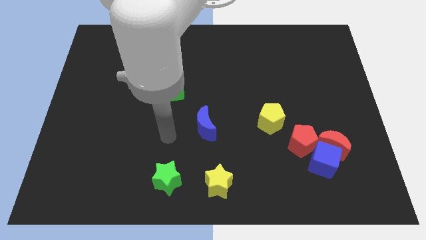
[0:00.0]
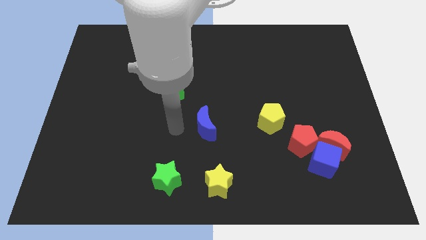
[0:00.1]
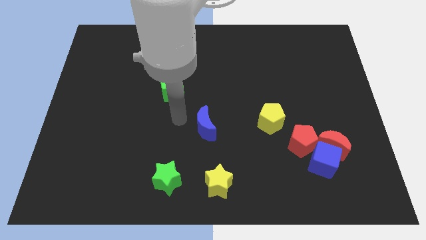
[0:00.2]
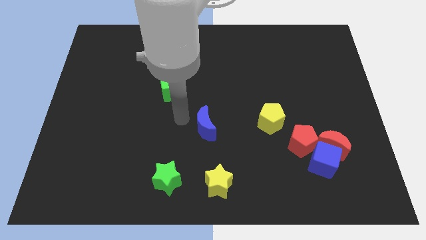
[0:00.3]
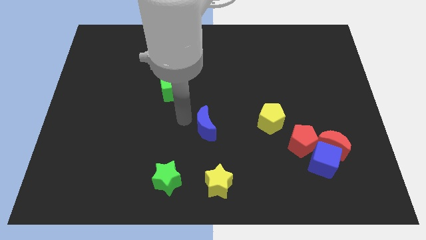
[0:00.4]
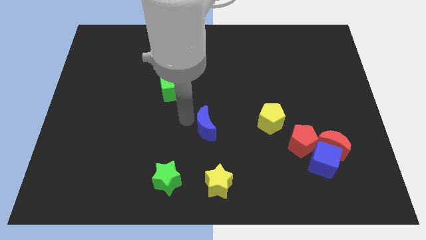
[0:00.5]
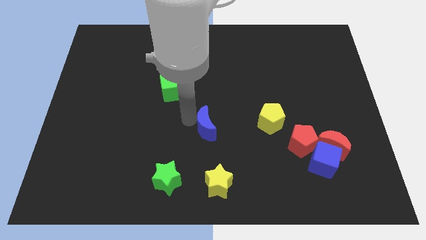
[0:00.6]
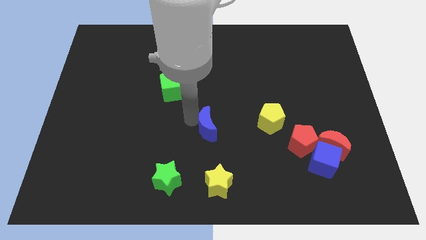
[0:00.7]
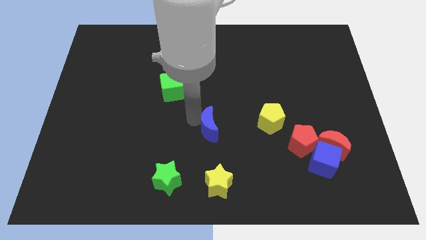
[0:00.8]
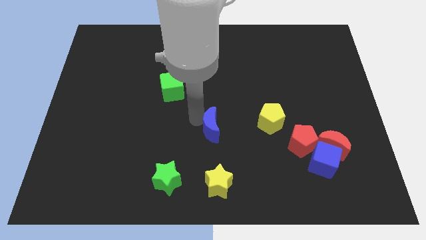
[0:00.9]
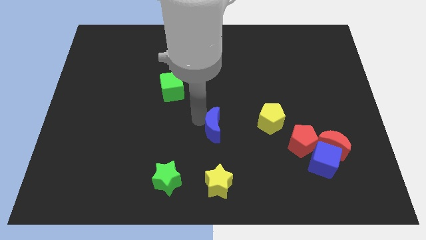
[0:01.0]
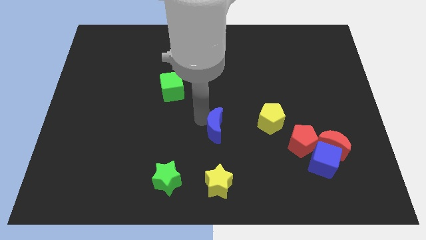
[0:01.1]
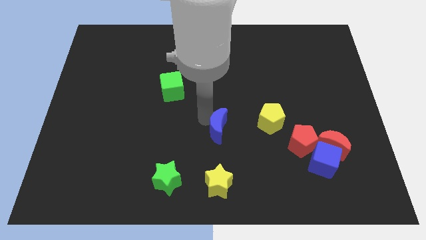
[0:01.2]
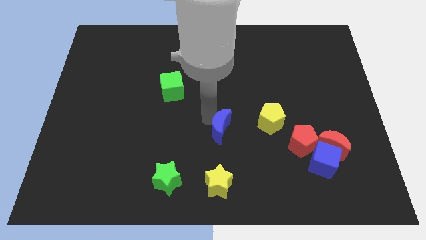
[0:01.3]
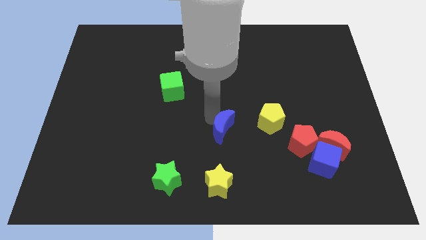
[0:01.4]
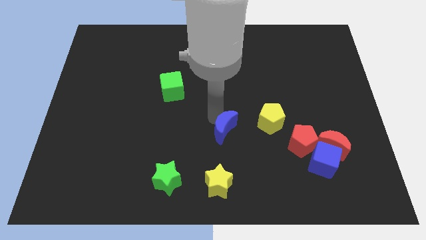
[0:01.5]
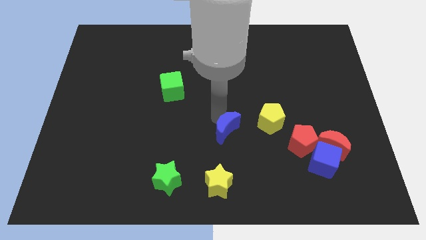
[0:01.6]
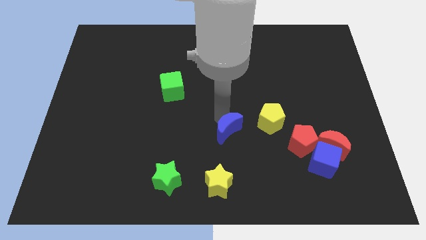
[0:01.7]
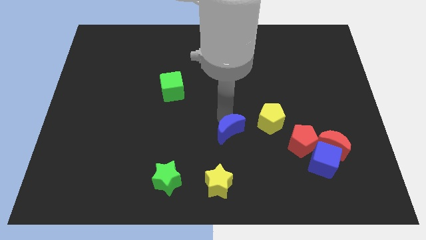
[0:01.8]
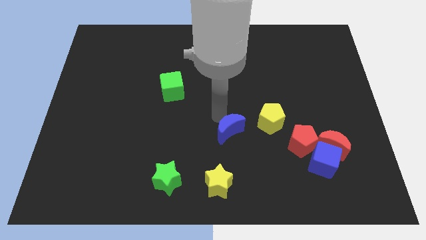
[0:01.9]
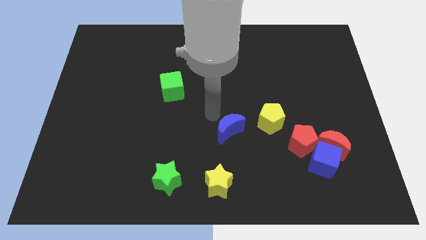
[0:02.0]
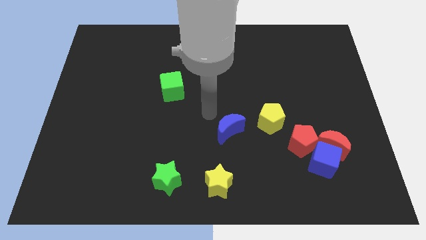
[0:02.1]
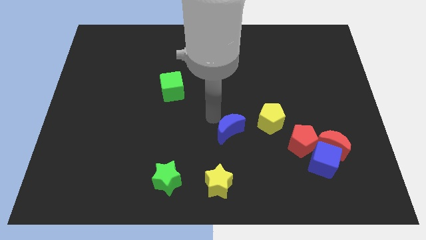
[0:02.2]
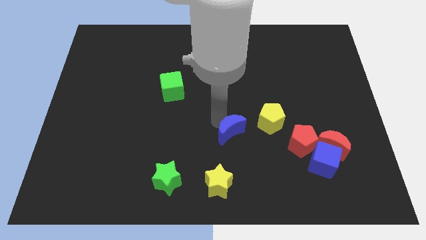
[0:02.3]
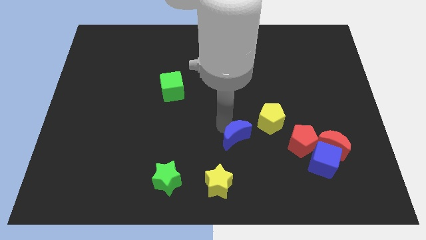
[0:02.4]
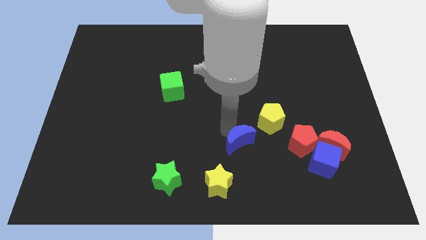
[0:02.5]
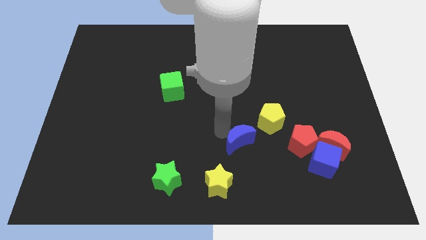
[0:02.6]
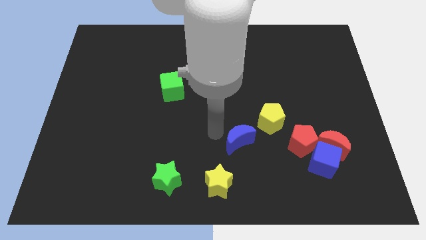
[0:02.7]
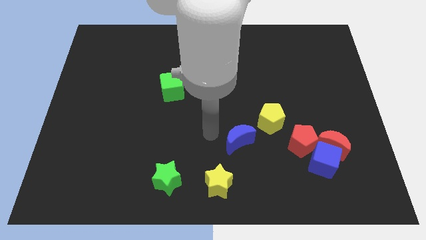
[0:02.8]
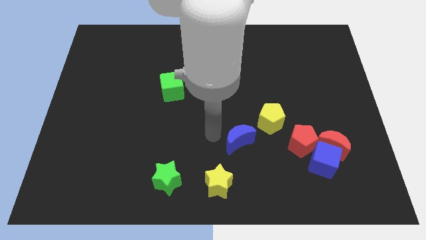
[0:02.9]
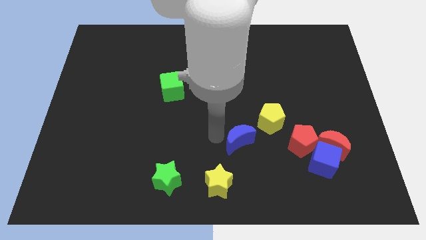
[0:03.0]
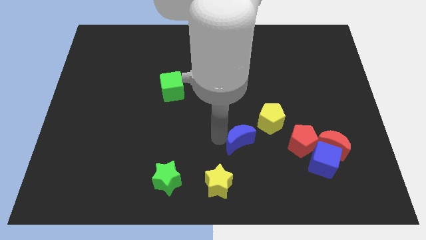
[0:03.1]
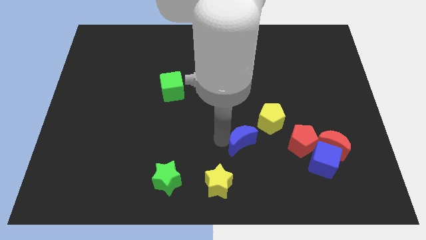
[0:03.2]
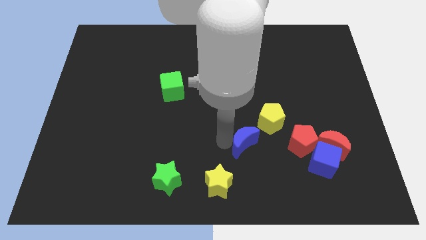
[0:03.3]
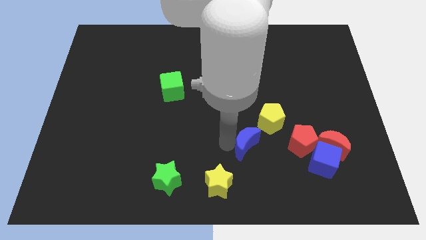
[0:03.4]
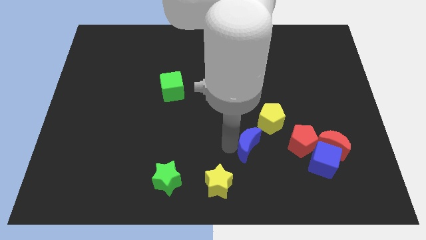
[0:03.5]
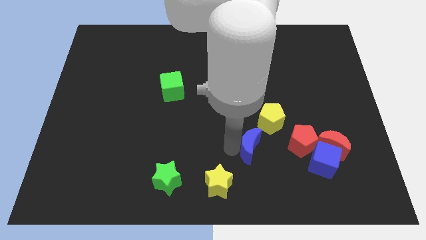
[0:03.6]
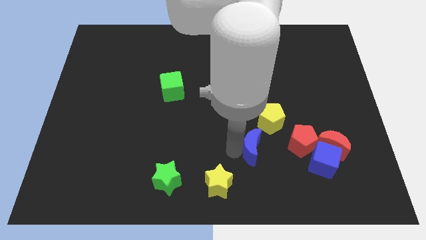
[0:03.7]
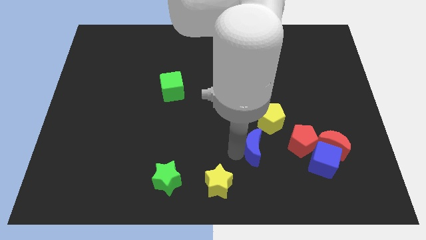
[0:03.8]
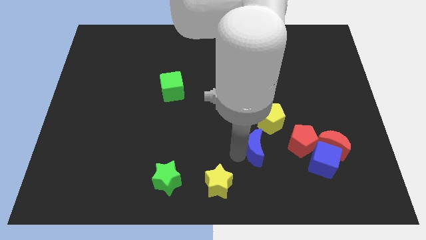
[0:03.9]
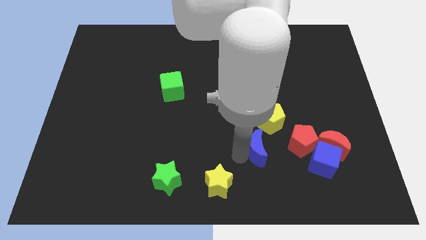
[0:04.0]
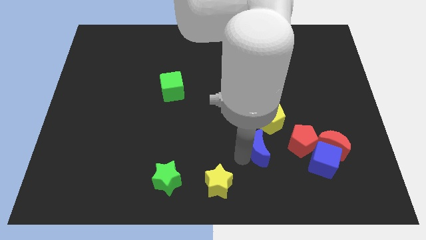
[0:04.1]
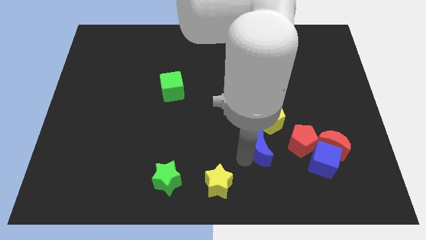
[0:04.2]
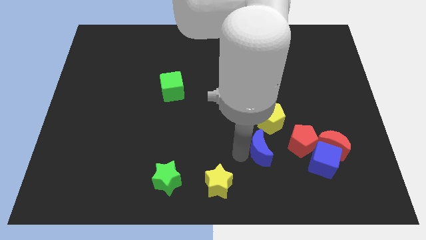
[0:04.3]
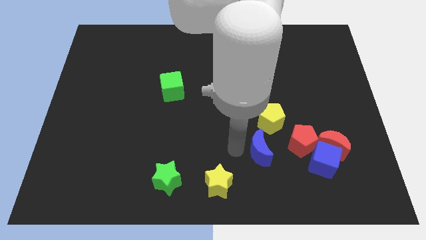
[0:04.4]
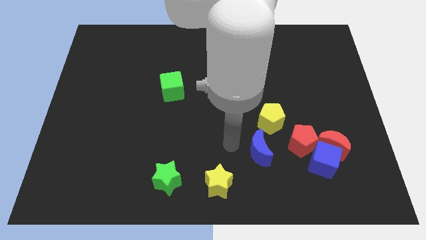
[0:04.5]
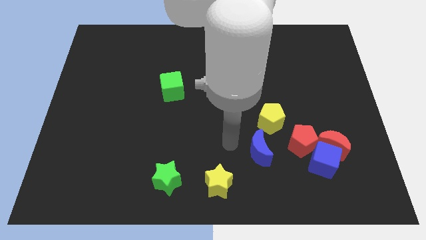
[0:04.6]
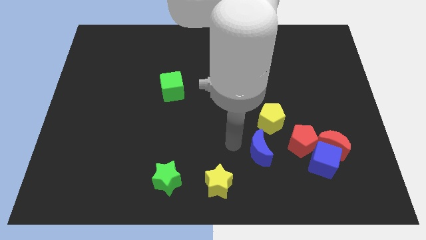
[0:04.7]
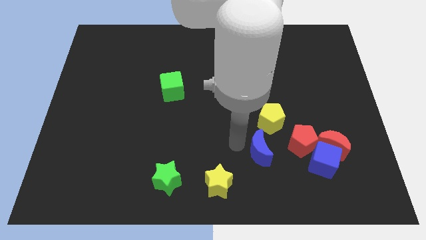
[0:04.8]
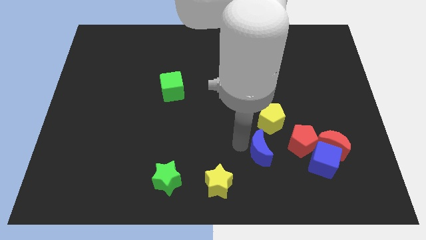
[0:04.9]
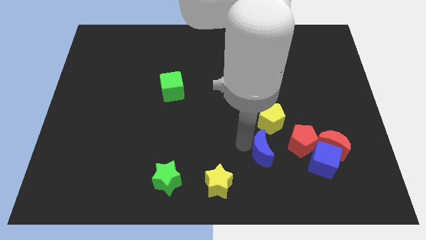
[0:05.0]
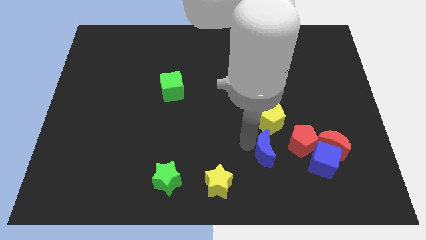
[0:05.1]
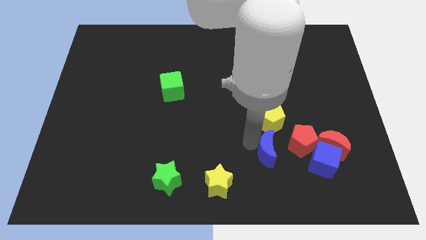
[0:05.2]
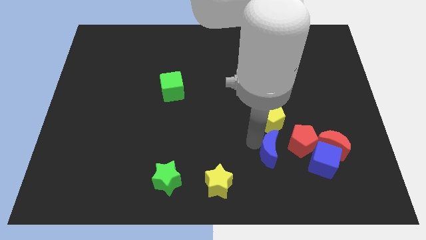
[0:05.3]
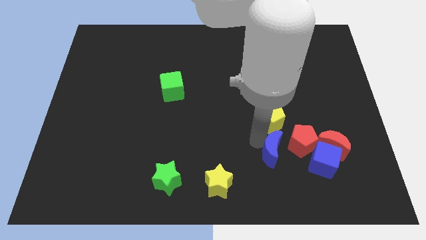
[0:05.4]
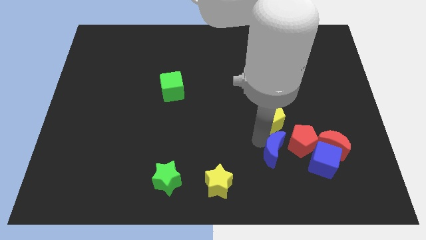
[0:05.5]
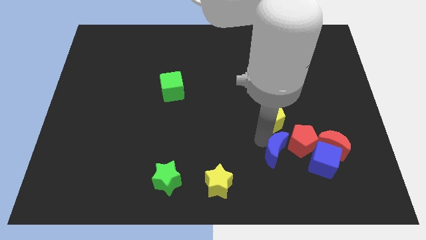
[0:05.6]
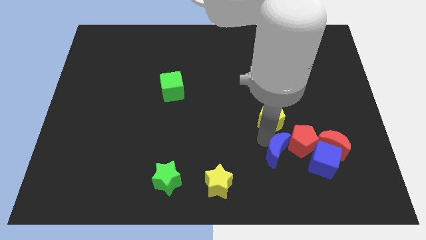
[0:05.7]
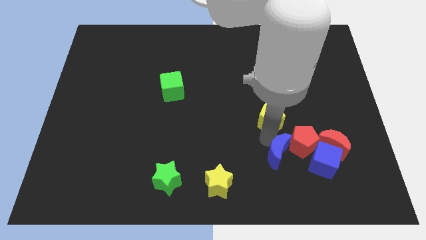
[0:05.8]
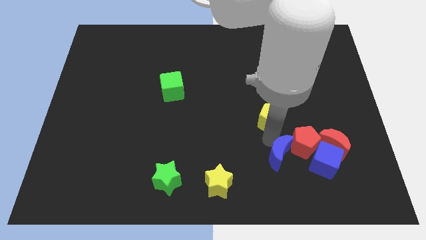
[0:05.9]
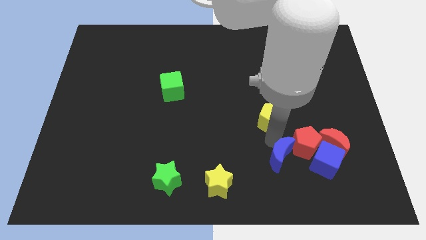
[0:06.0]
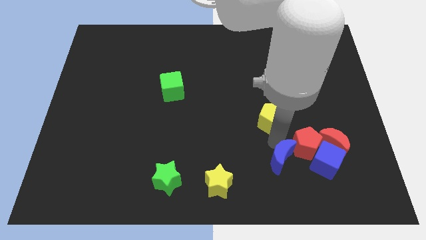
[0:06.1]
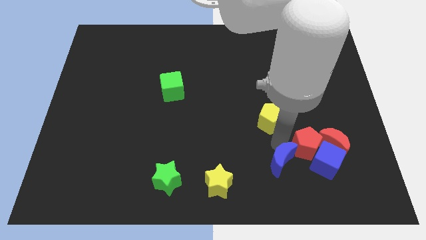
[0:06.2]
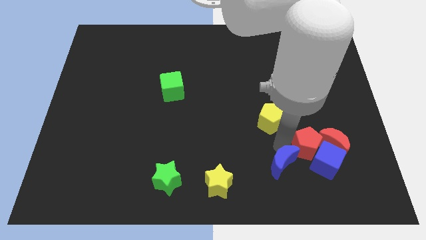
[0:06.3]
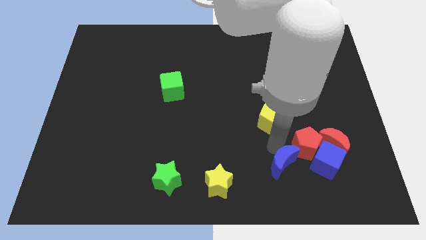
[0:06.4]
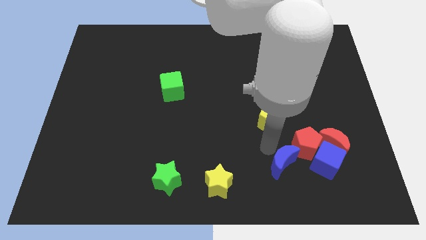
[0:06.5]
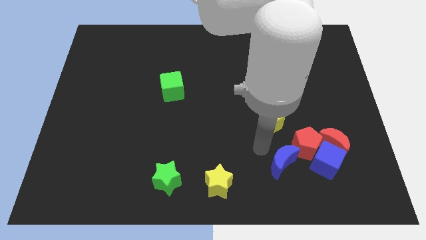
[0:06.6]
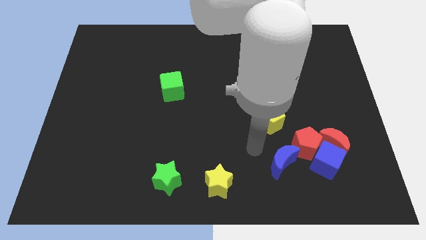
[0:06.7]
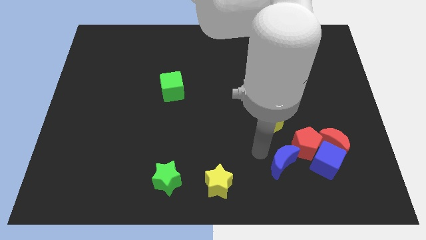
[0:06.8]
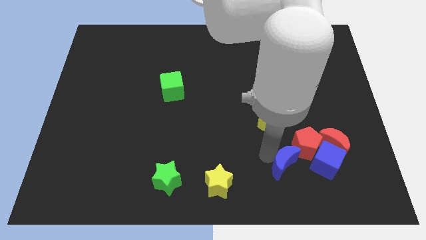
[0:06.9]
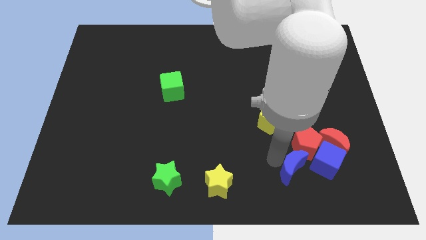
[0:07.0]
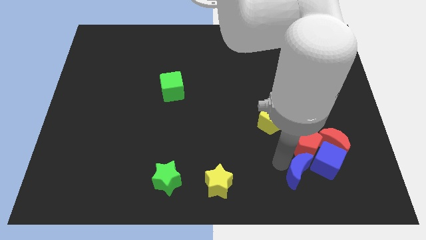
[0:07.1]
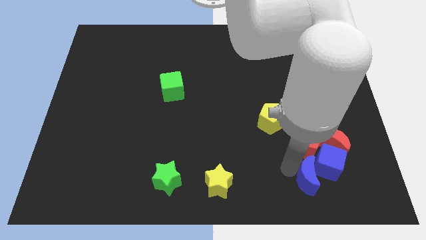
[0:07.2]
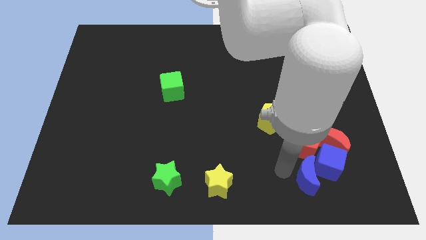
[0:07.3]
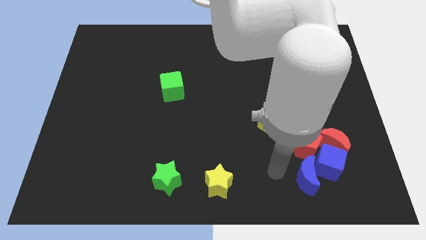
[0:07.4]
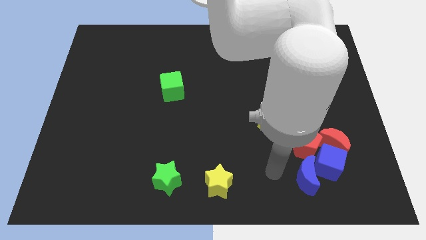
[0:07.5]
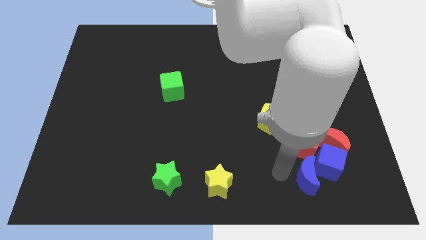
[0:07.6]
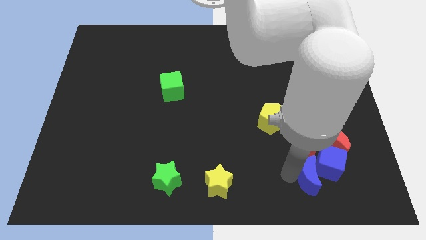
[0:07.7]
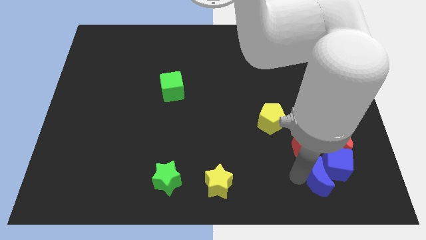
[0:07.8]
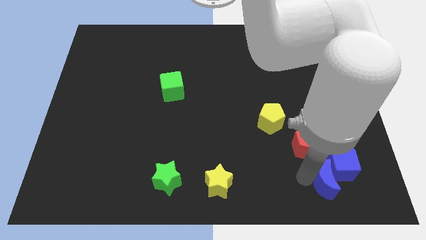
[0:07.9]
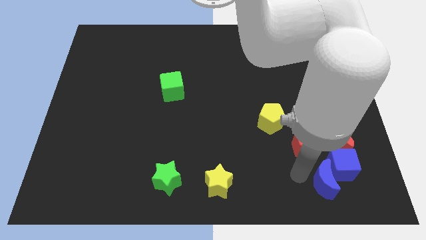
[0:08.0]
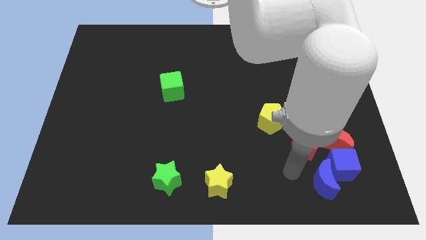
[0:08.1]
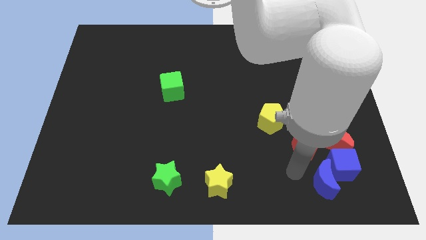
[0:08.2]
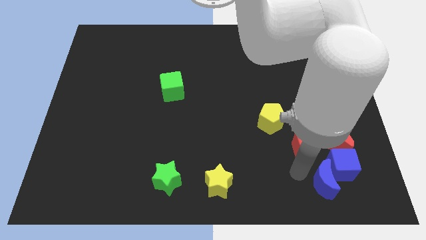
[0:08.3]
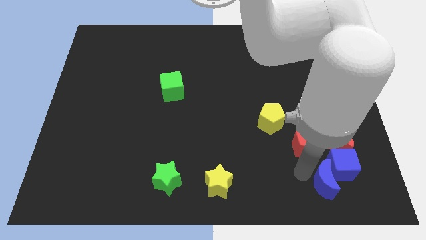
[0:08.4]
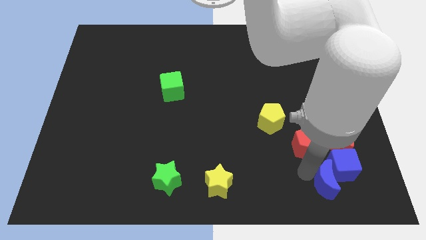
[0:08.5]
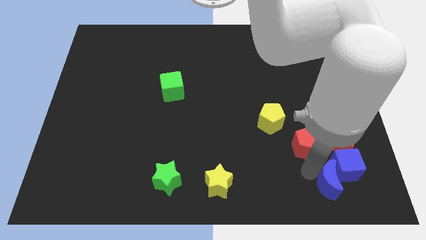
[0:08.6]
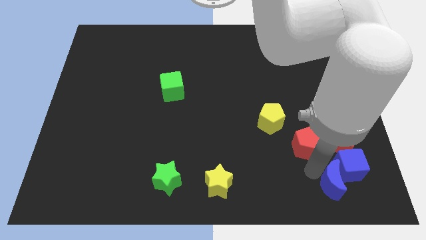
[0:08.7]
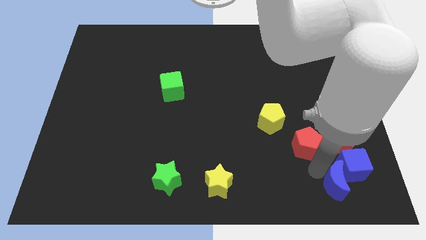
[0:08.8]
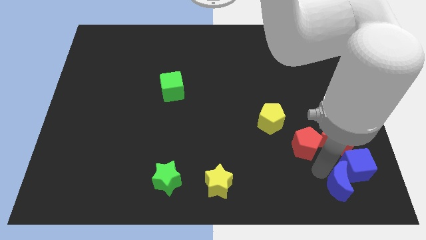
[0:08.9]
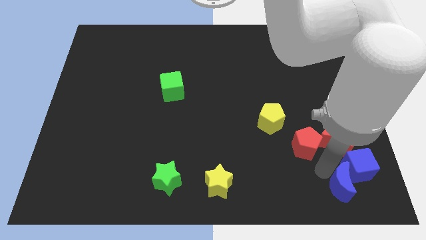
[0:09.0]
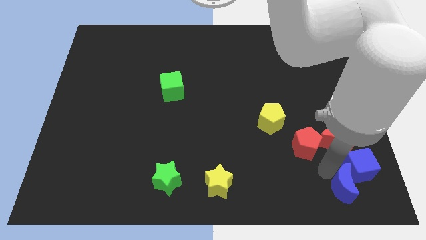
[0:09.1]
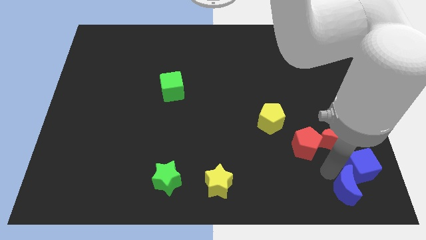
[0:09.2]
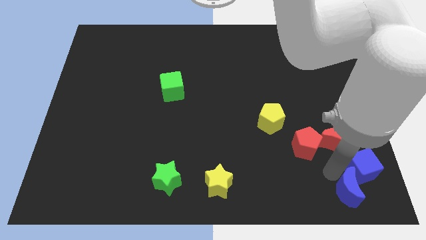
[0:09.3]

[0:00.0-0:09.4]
slide the blue moon to the bottom right of the board
